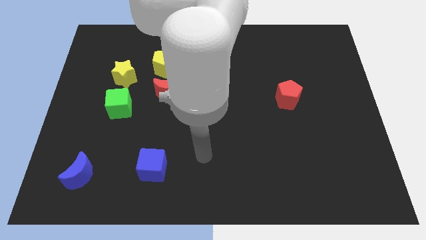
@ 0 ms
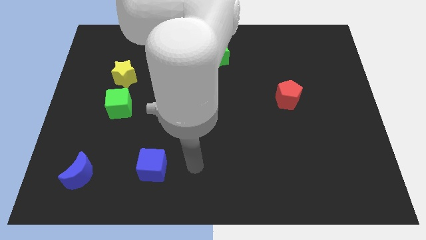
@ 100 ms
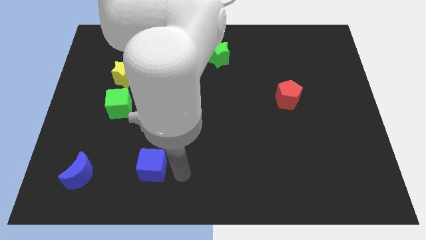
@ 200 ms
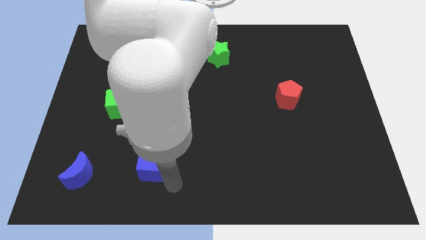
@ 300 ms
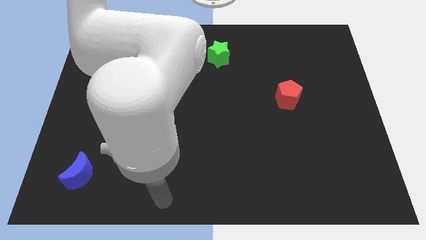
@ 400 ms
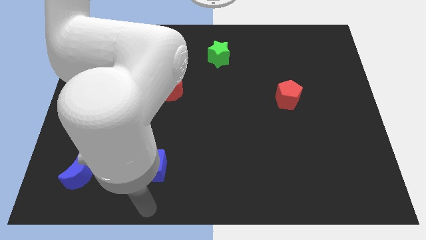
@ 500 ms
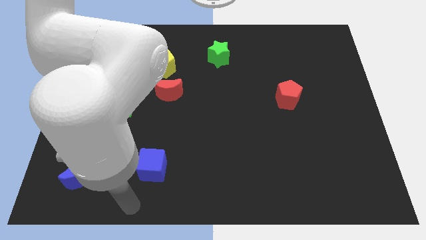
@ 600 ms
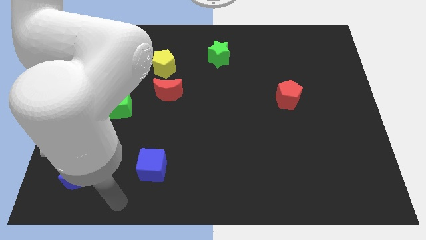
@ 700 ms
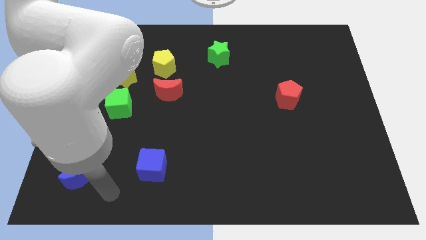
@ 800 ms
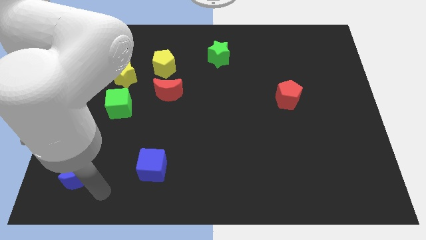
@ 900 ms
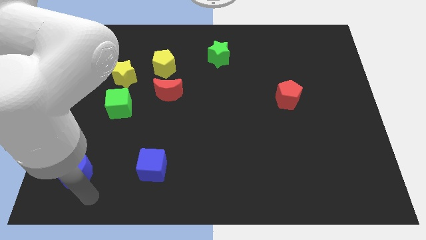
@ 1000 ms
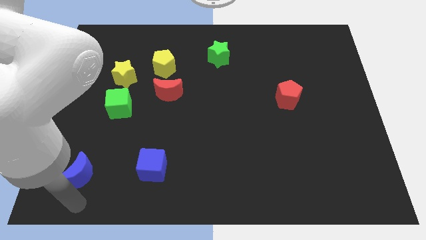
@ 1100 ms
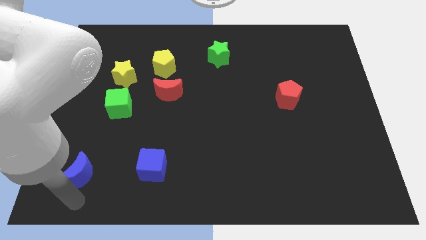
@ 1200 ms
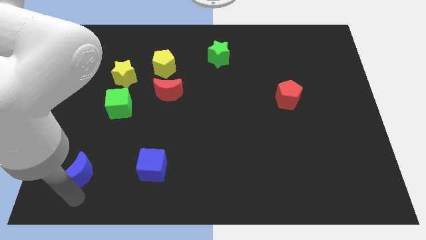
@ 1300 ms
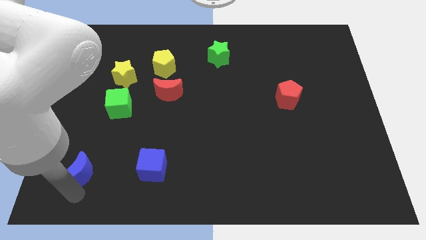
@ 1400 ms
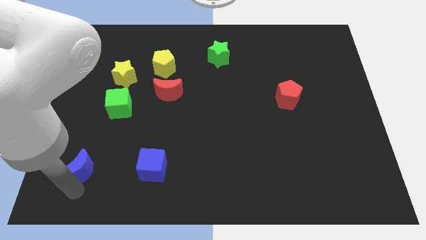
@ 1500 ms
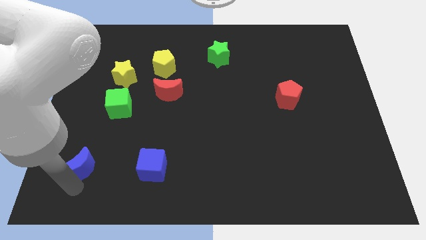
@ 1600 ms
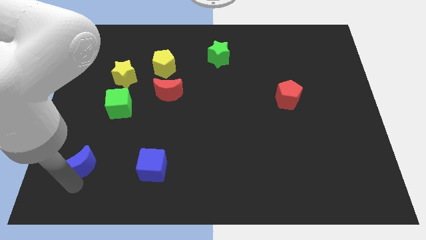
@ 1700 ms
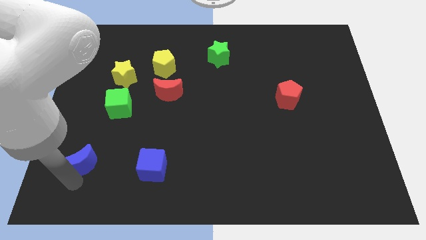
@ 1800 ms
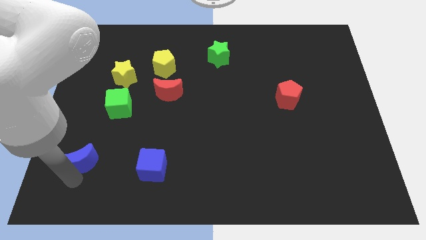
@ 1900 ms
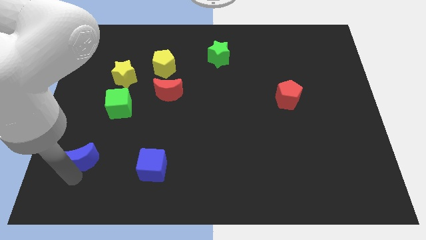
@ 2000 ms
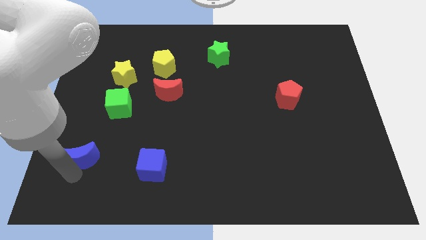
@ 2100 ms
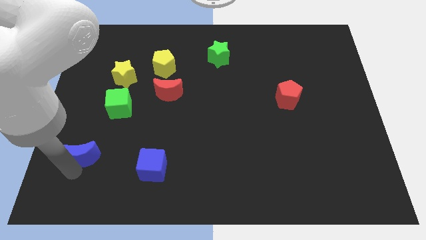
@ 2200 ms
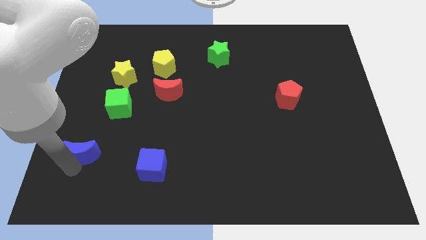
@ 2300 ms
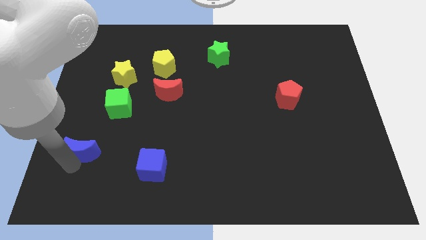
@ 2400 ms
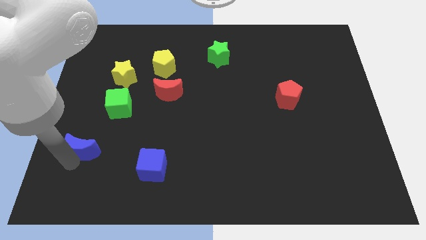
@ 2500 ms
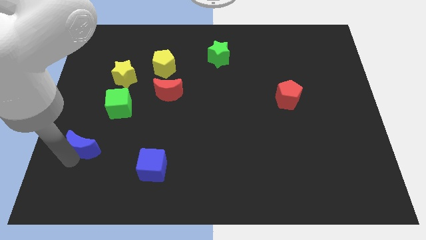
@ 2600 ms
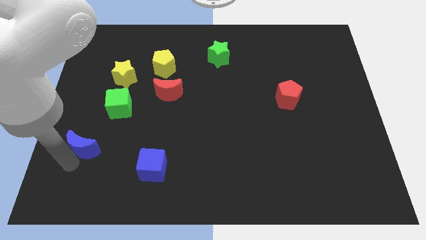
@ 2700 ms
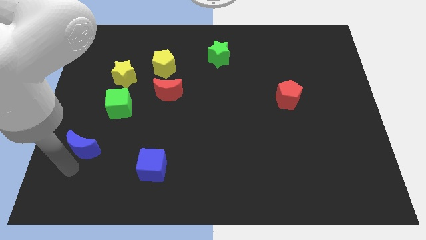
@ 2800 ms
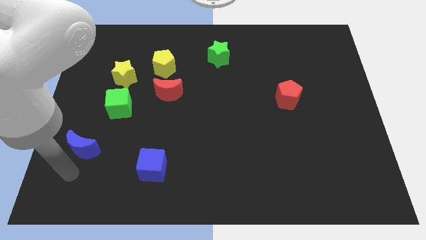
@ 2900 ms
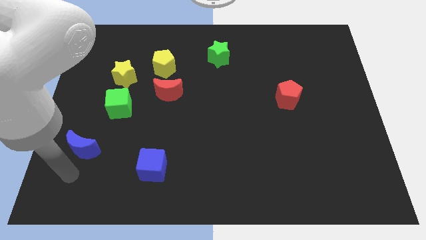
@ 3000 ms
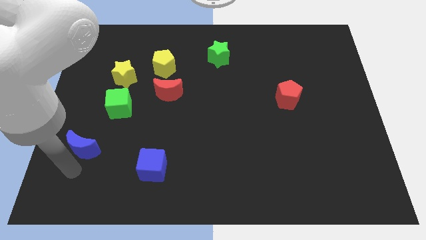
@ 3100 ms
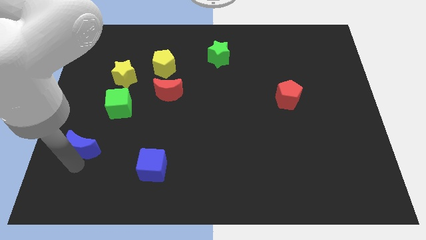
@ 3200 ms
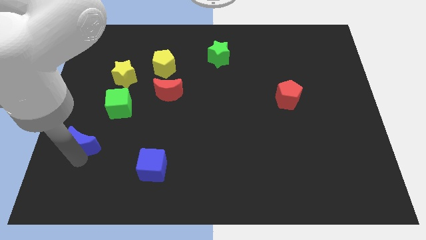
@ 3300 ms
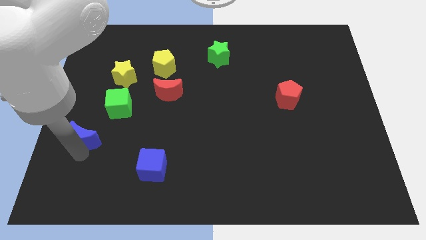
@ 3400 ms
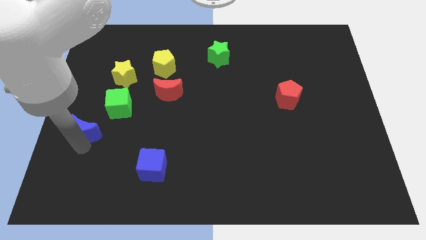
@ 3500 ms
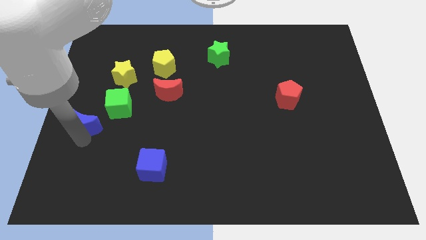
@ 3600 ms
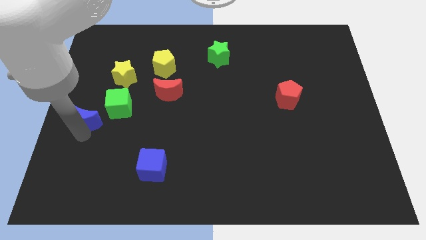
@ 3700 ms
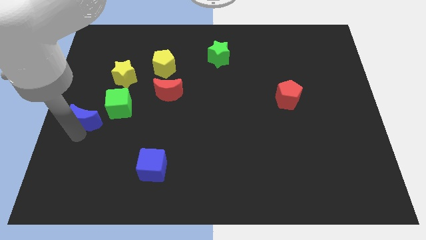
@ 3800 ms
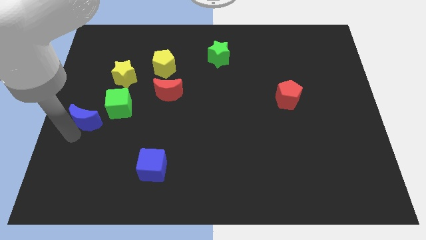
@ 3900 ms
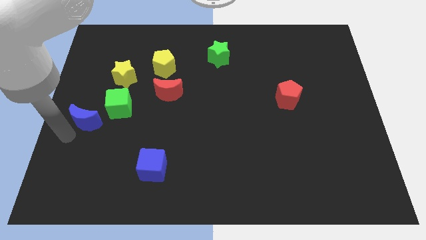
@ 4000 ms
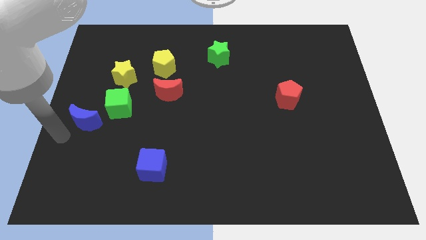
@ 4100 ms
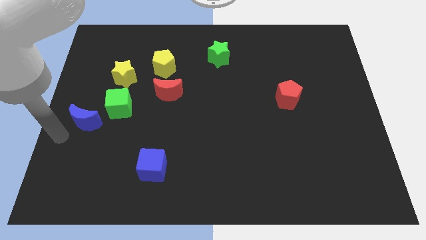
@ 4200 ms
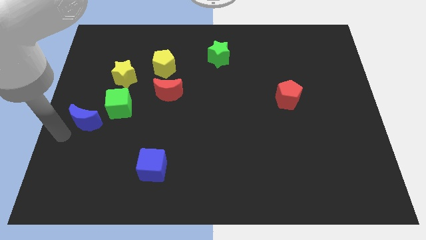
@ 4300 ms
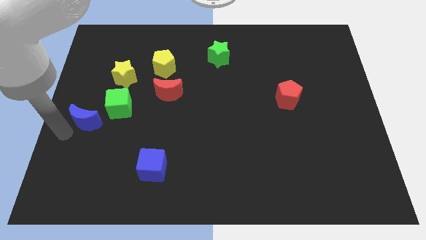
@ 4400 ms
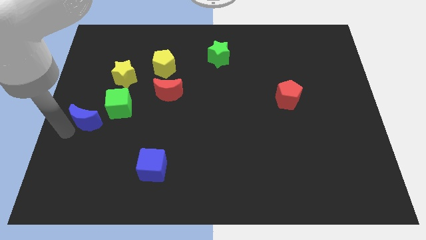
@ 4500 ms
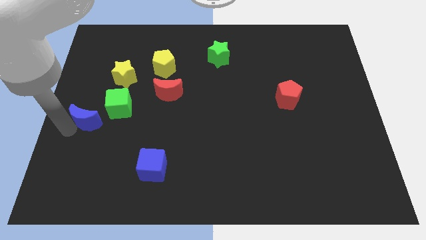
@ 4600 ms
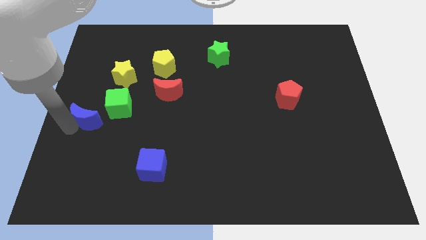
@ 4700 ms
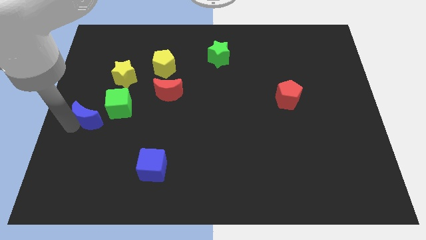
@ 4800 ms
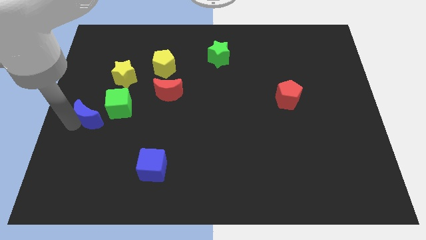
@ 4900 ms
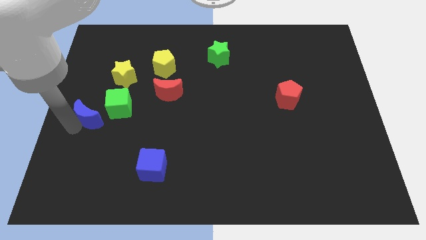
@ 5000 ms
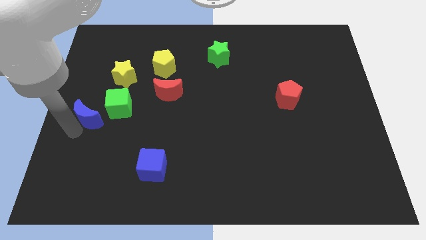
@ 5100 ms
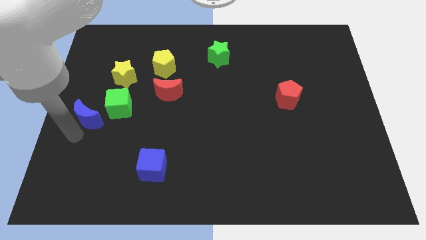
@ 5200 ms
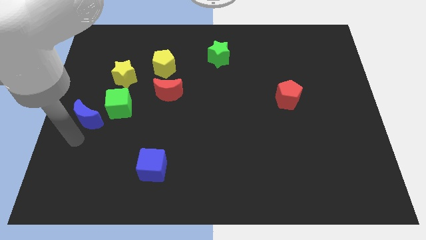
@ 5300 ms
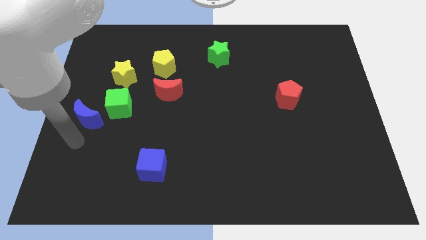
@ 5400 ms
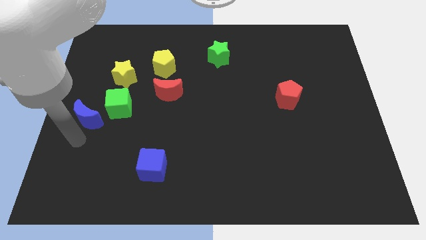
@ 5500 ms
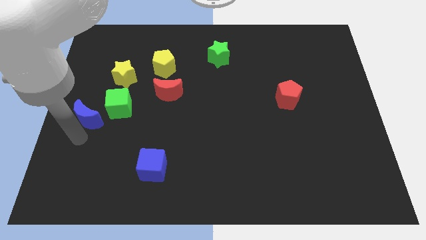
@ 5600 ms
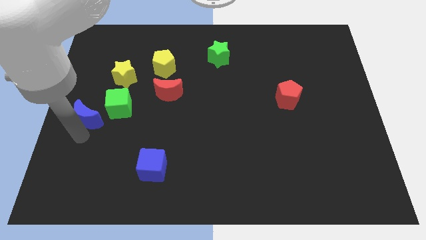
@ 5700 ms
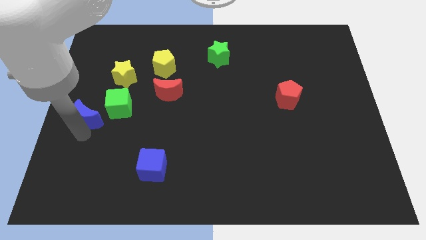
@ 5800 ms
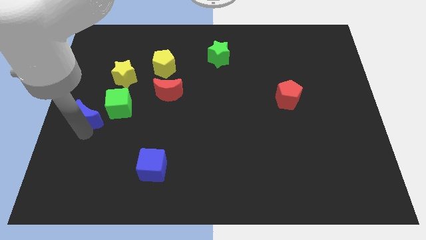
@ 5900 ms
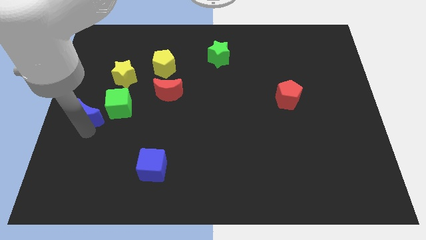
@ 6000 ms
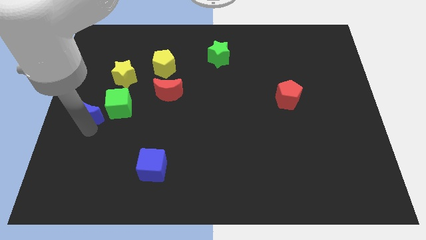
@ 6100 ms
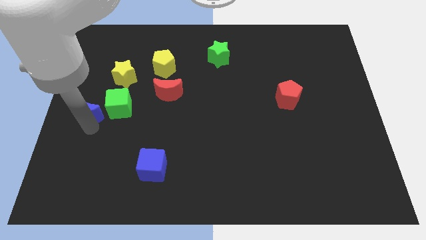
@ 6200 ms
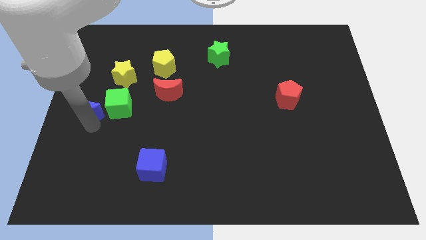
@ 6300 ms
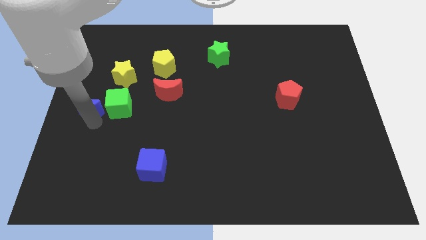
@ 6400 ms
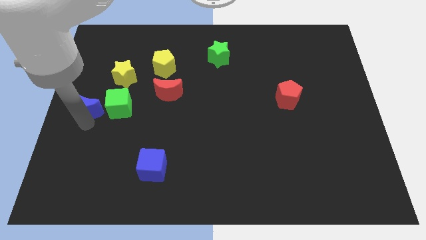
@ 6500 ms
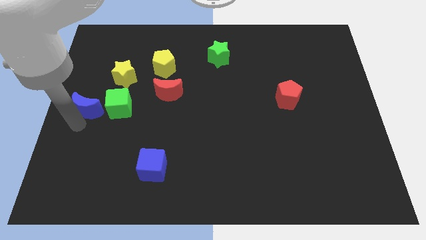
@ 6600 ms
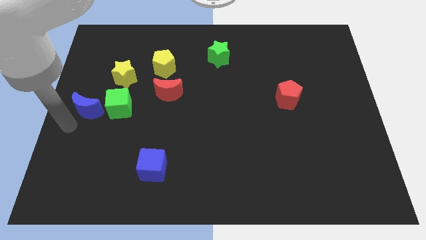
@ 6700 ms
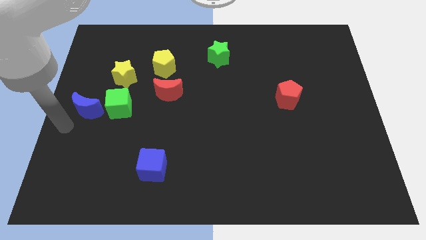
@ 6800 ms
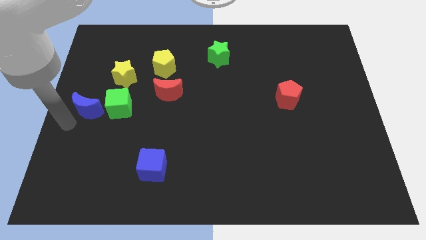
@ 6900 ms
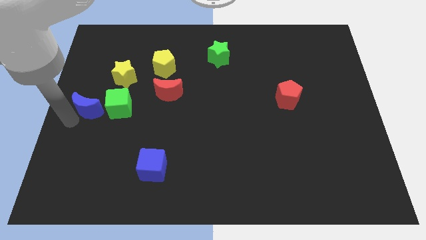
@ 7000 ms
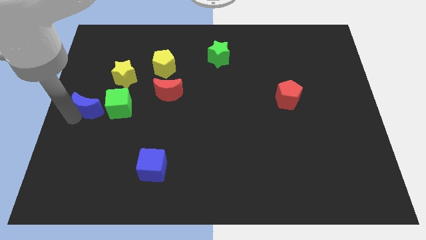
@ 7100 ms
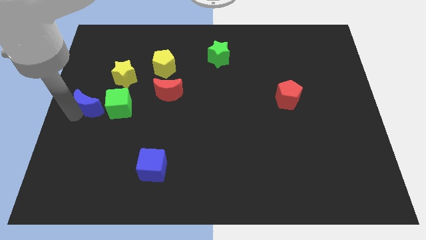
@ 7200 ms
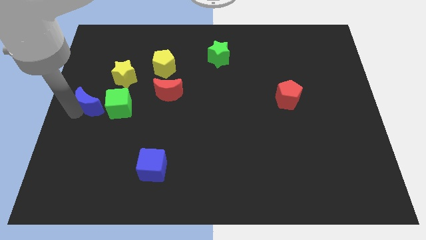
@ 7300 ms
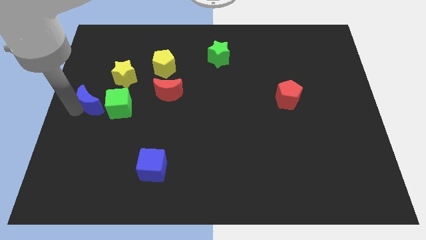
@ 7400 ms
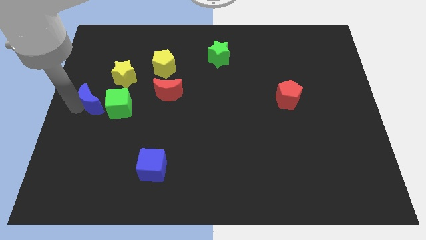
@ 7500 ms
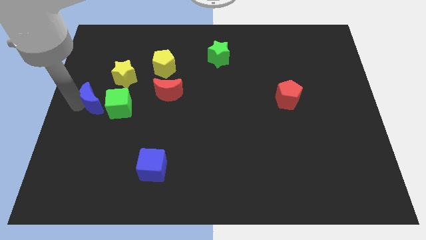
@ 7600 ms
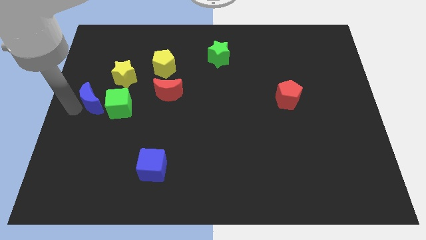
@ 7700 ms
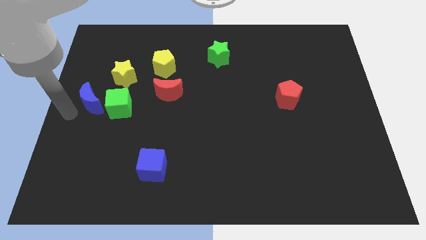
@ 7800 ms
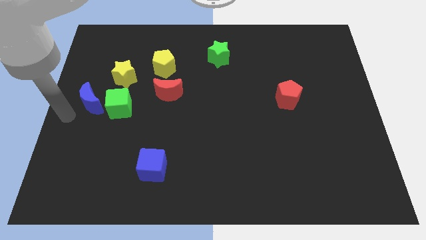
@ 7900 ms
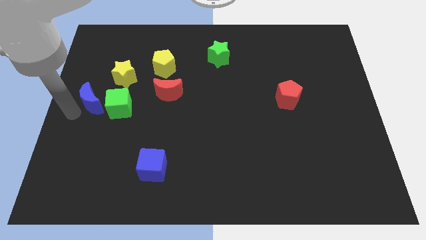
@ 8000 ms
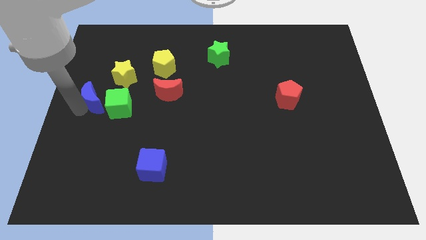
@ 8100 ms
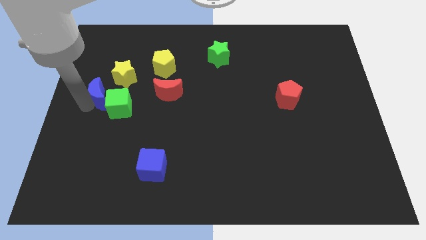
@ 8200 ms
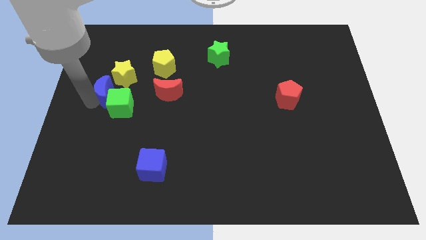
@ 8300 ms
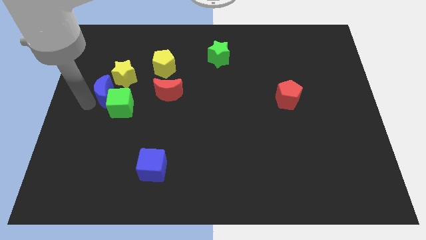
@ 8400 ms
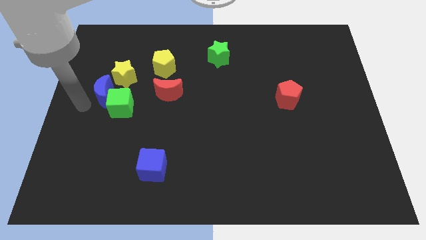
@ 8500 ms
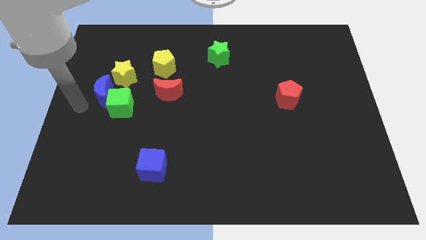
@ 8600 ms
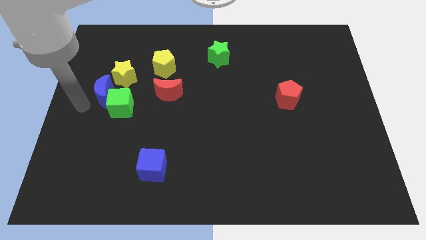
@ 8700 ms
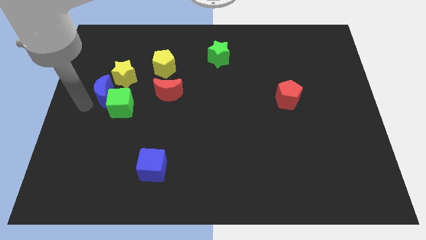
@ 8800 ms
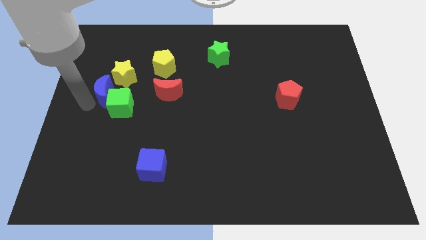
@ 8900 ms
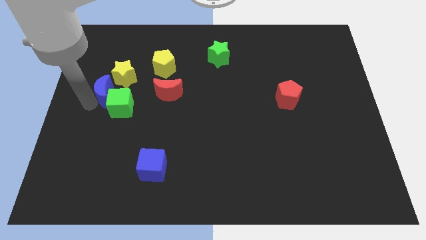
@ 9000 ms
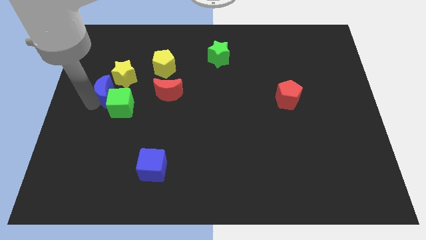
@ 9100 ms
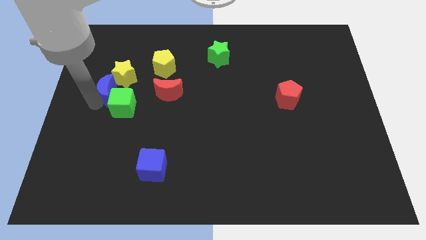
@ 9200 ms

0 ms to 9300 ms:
push the blue moon towards the yellow star
